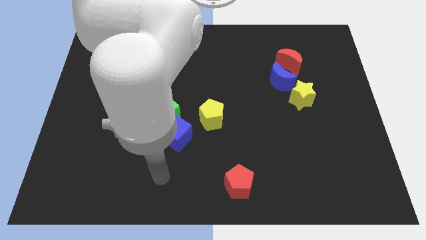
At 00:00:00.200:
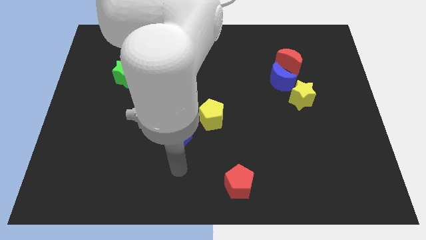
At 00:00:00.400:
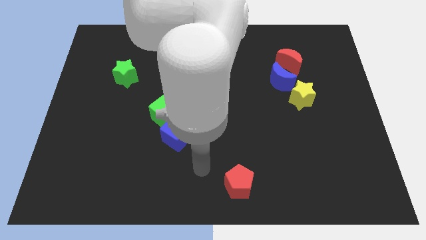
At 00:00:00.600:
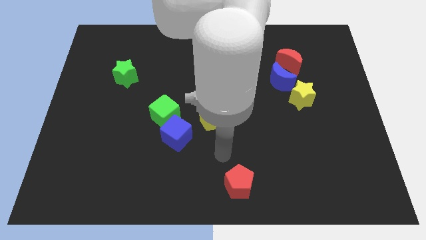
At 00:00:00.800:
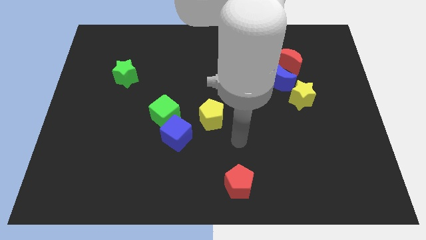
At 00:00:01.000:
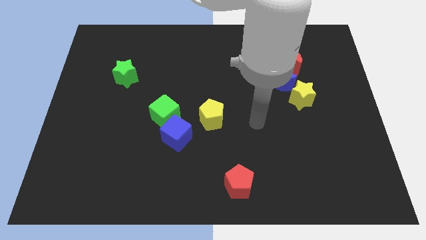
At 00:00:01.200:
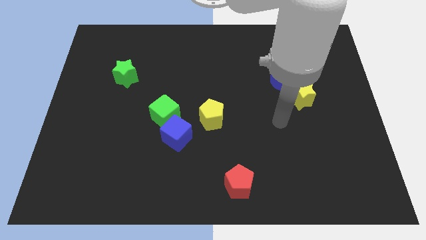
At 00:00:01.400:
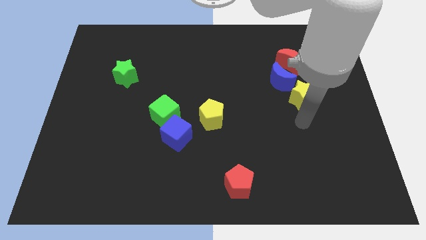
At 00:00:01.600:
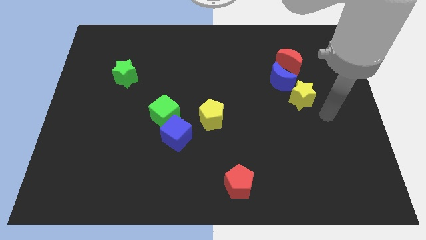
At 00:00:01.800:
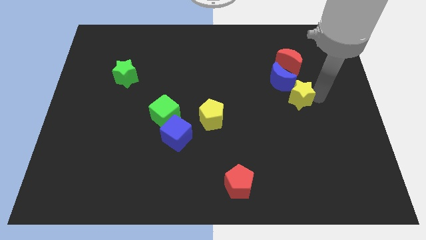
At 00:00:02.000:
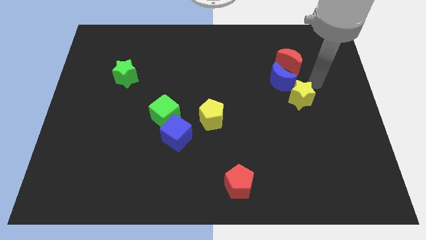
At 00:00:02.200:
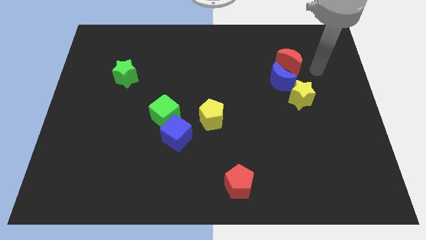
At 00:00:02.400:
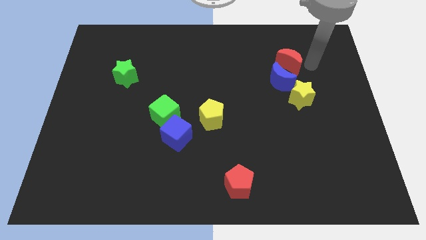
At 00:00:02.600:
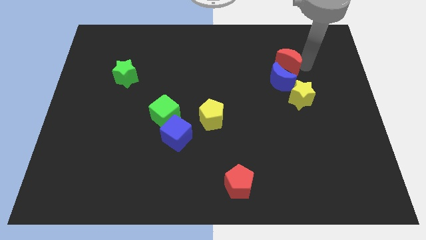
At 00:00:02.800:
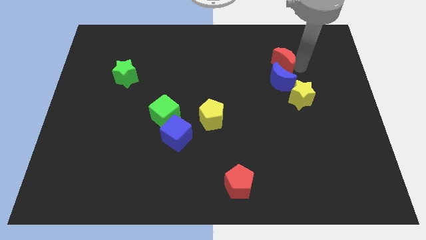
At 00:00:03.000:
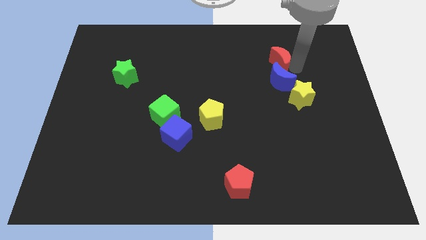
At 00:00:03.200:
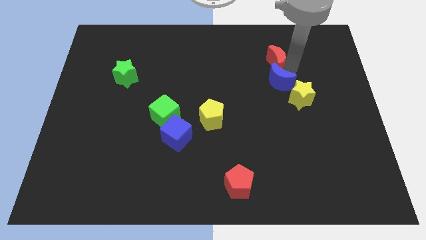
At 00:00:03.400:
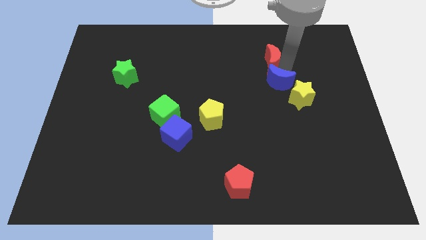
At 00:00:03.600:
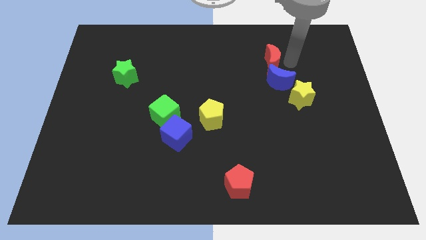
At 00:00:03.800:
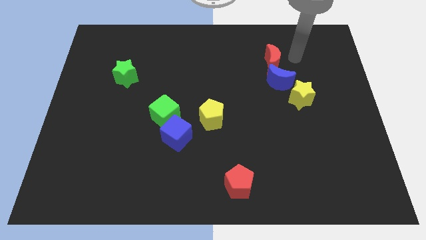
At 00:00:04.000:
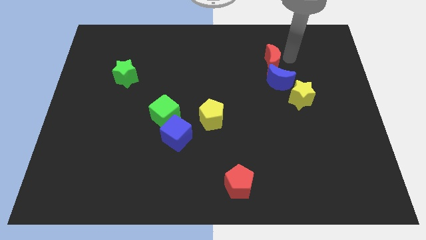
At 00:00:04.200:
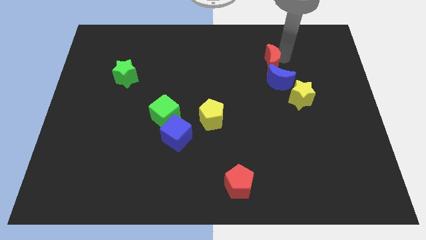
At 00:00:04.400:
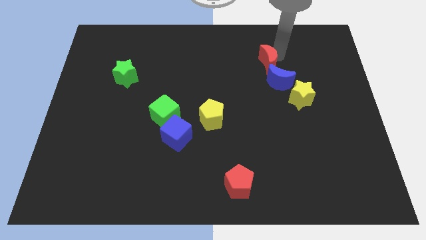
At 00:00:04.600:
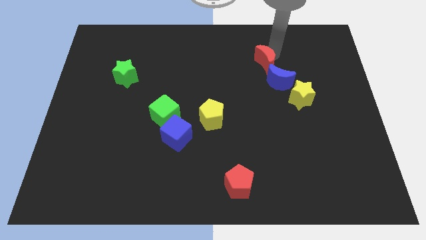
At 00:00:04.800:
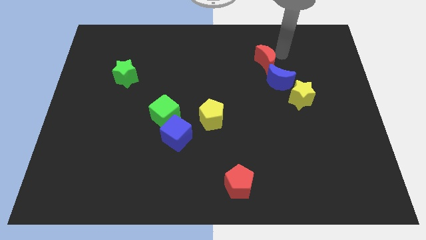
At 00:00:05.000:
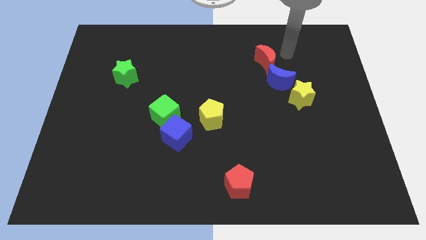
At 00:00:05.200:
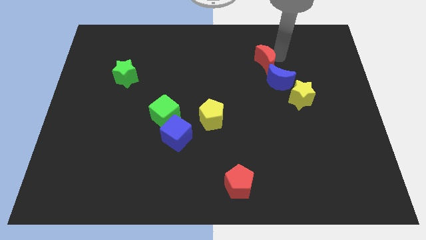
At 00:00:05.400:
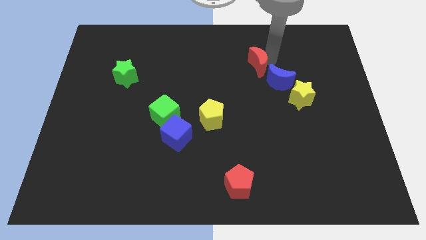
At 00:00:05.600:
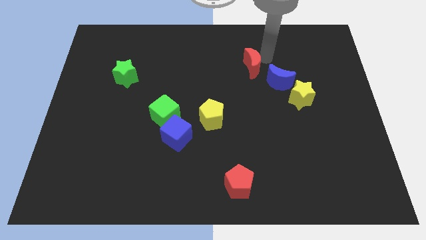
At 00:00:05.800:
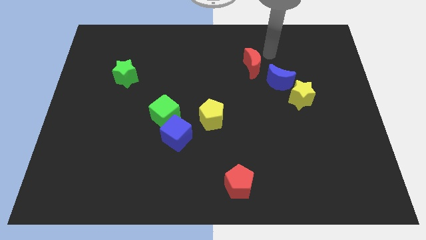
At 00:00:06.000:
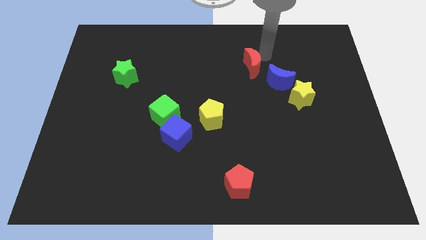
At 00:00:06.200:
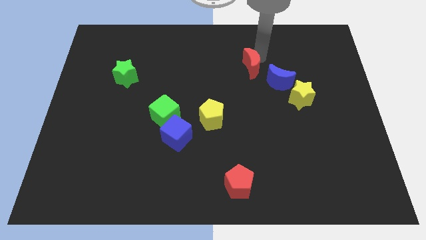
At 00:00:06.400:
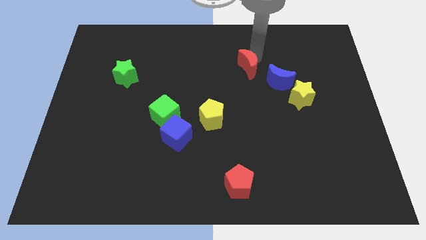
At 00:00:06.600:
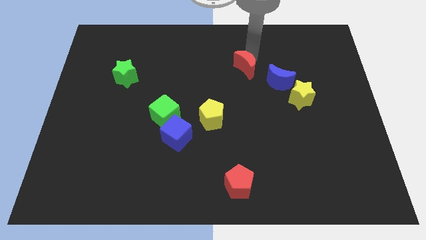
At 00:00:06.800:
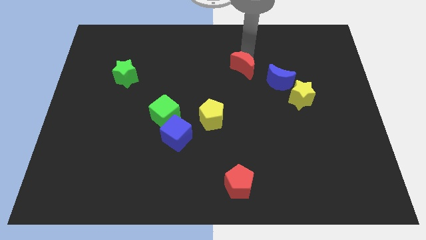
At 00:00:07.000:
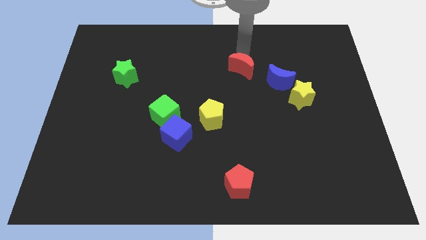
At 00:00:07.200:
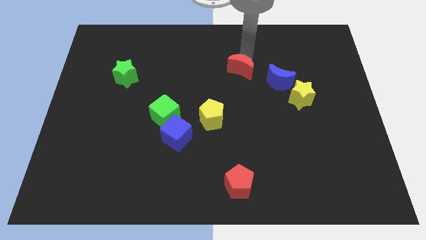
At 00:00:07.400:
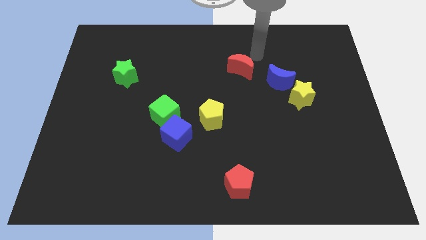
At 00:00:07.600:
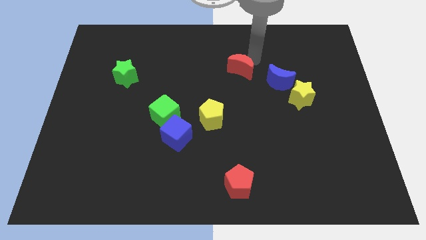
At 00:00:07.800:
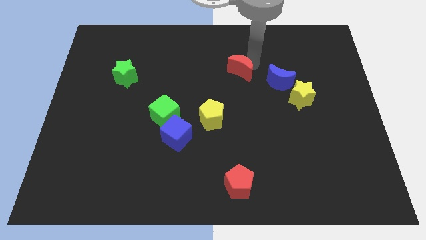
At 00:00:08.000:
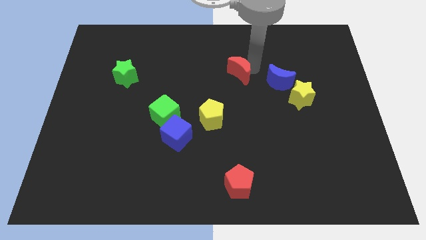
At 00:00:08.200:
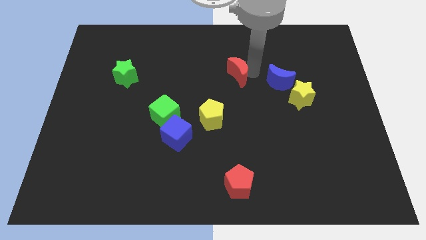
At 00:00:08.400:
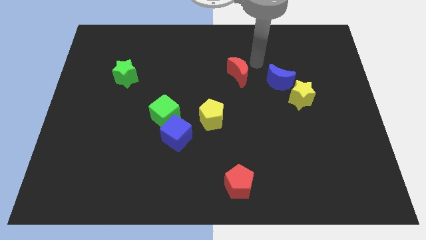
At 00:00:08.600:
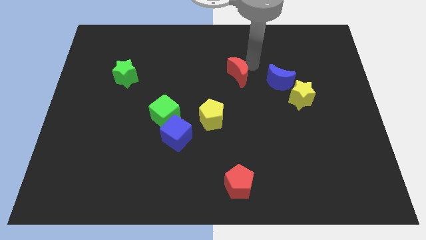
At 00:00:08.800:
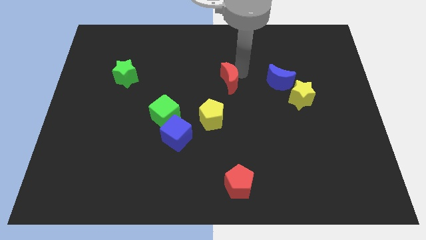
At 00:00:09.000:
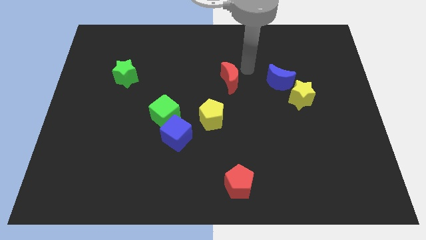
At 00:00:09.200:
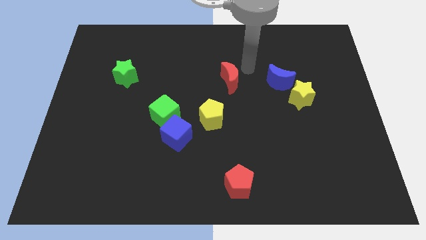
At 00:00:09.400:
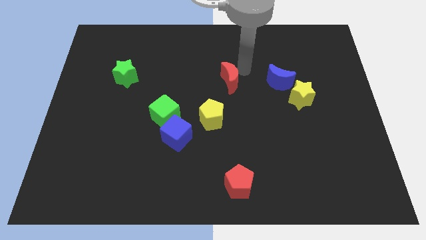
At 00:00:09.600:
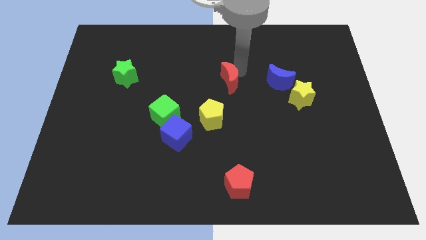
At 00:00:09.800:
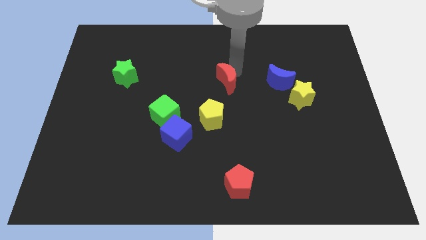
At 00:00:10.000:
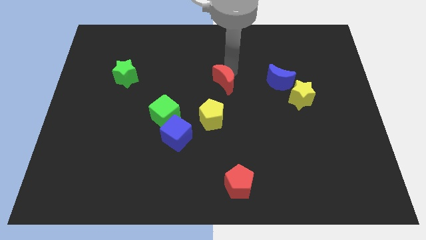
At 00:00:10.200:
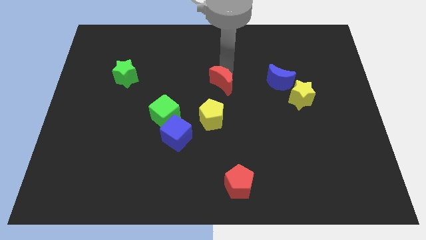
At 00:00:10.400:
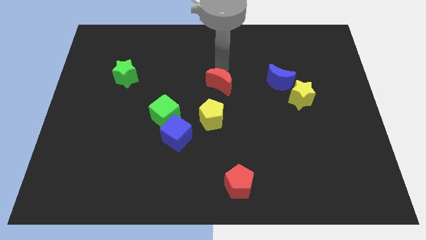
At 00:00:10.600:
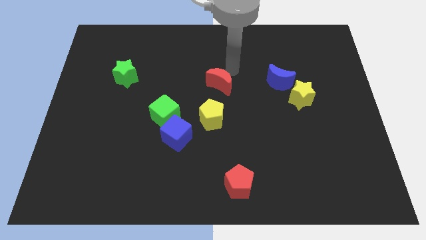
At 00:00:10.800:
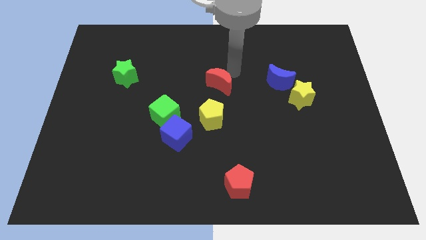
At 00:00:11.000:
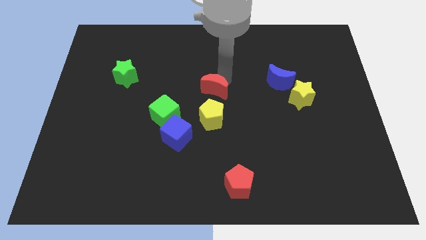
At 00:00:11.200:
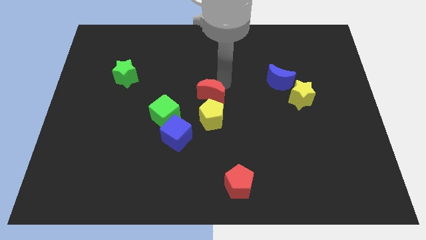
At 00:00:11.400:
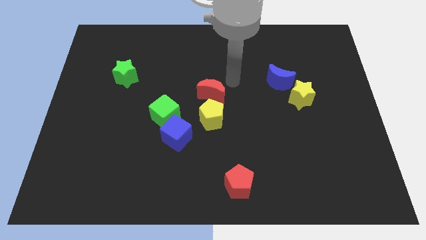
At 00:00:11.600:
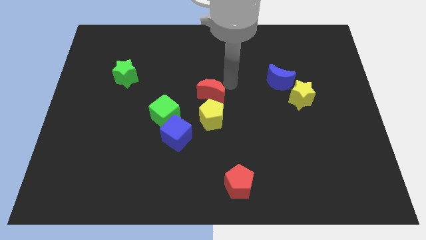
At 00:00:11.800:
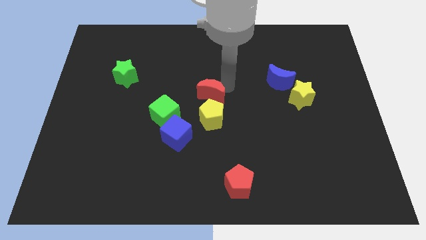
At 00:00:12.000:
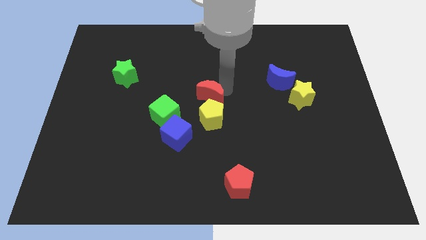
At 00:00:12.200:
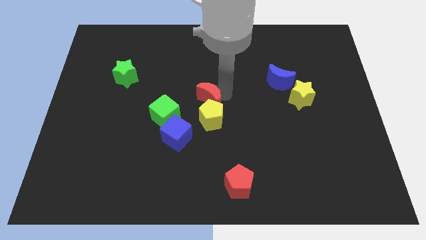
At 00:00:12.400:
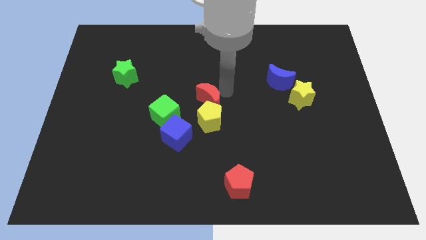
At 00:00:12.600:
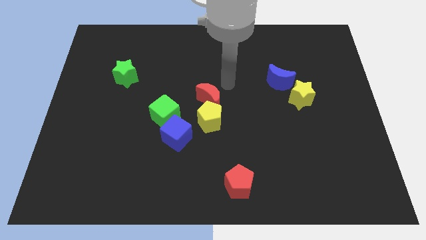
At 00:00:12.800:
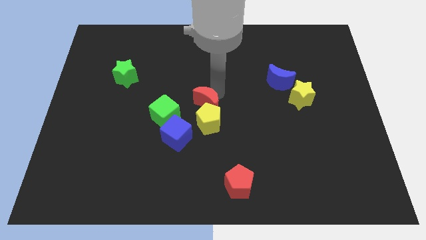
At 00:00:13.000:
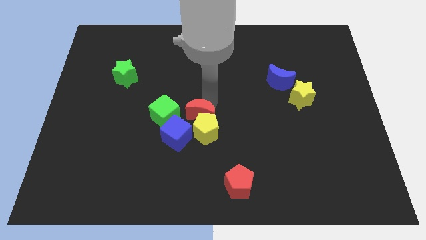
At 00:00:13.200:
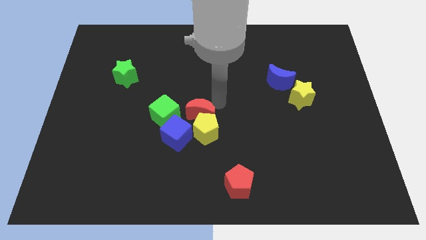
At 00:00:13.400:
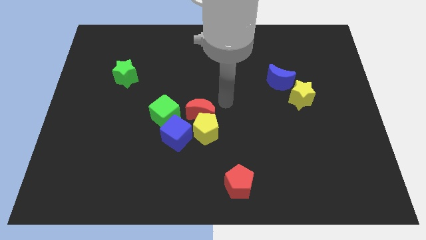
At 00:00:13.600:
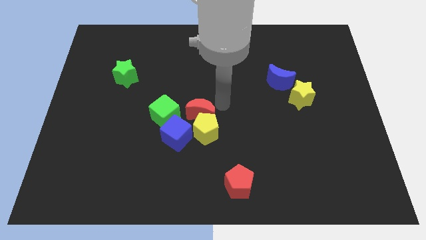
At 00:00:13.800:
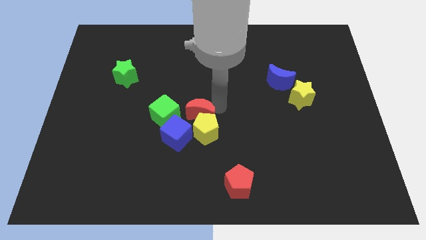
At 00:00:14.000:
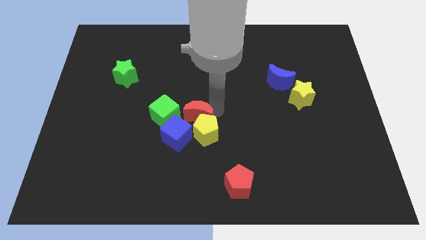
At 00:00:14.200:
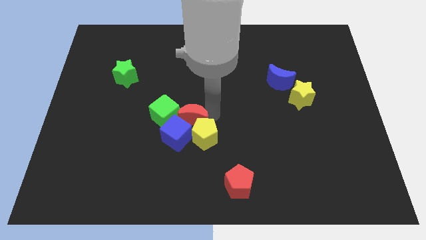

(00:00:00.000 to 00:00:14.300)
move the red moon towards the blue cube

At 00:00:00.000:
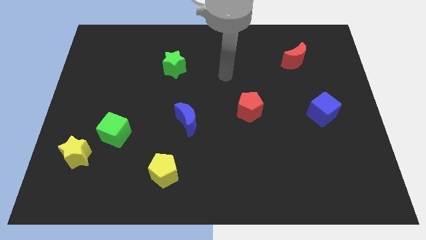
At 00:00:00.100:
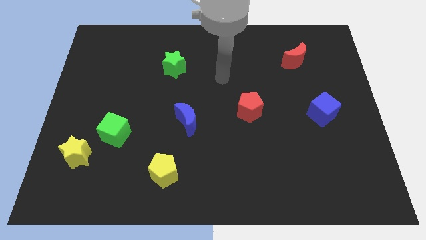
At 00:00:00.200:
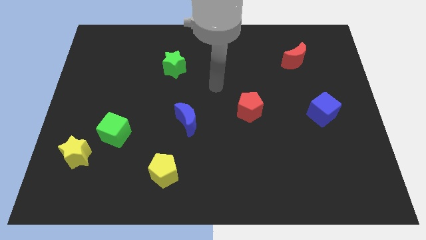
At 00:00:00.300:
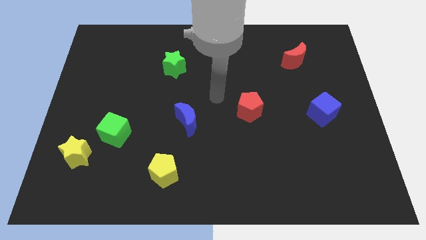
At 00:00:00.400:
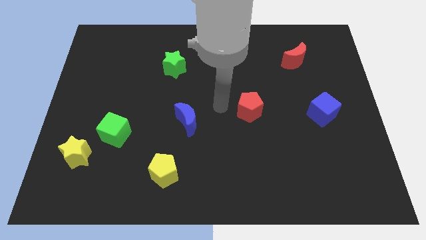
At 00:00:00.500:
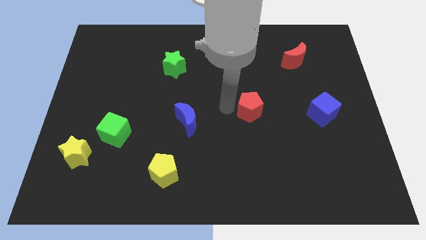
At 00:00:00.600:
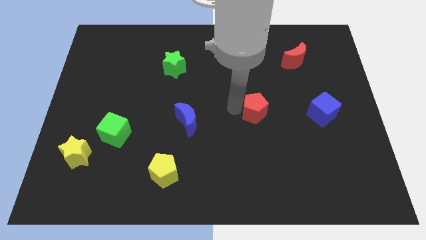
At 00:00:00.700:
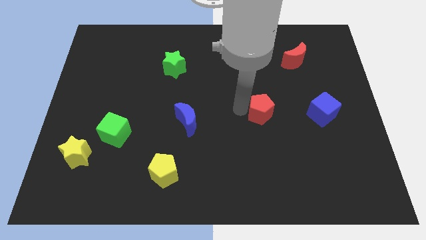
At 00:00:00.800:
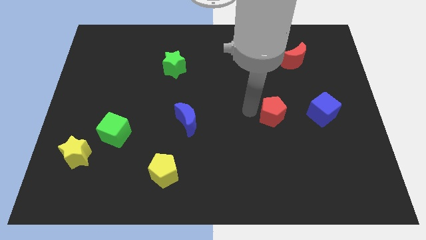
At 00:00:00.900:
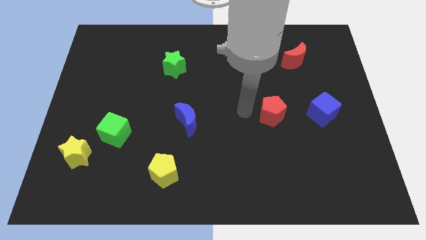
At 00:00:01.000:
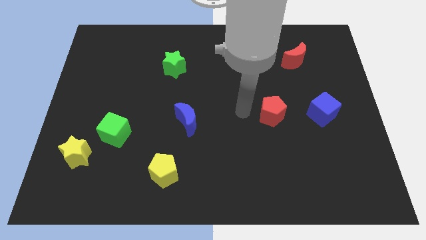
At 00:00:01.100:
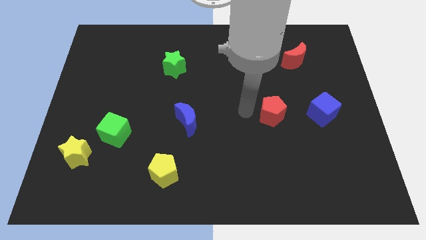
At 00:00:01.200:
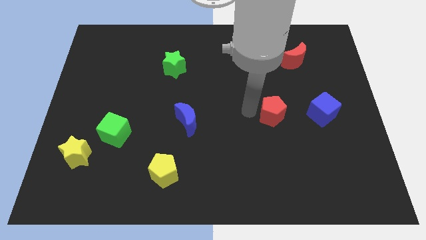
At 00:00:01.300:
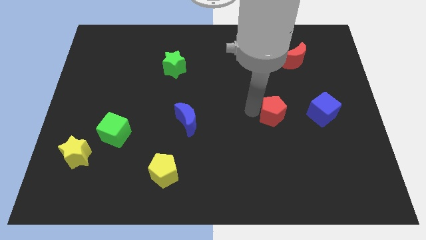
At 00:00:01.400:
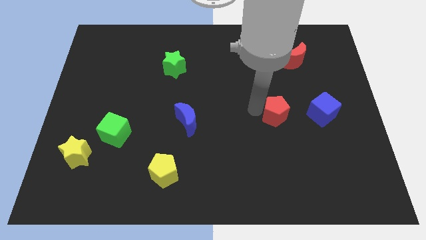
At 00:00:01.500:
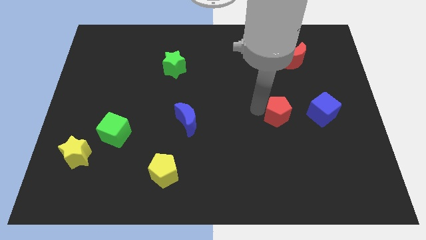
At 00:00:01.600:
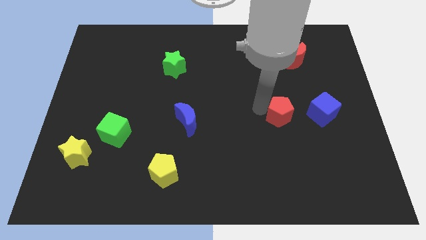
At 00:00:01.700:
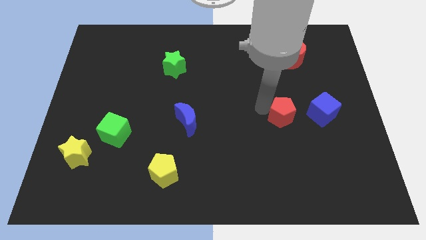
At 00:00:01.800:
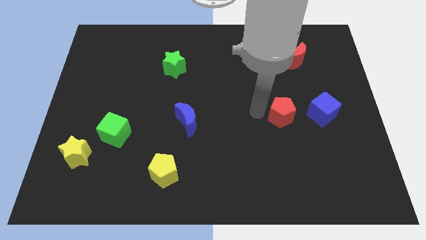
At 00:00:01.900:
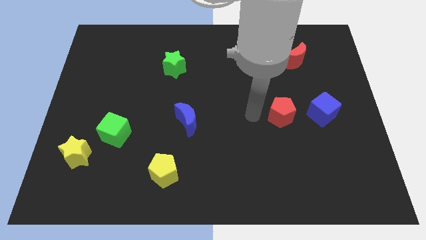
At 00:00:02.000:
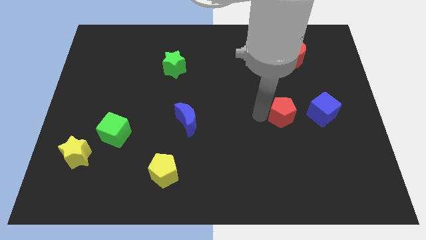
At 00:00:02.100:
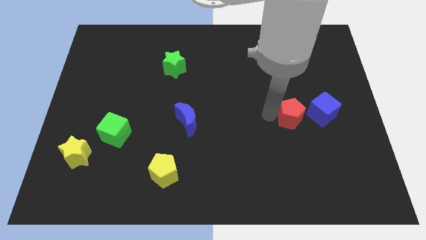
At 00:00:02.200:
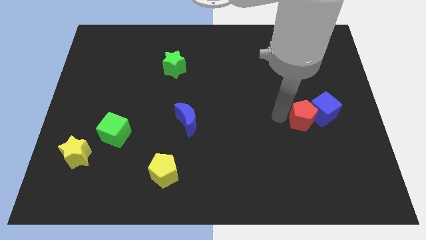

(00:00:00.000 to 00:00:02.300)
put the red pentagon next to the blue cube
